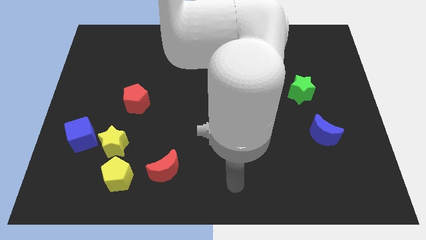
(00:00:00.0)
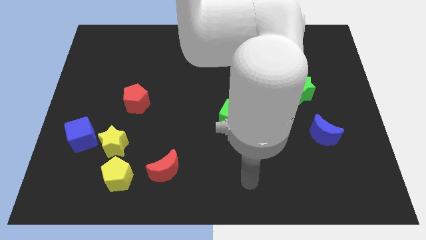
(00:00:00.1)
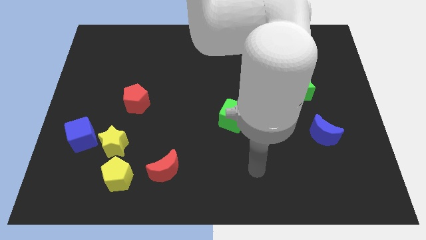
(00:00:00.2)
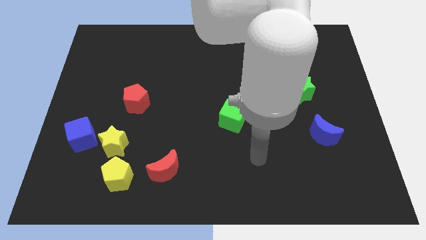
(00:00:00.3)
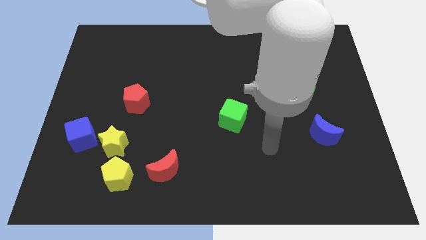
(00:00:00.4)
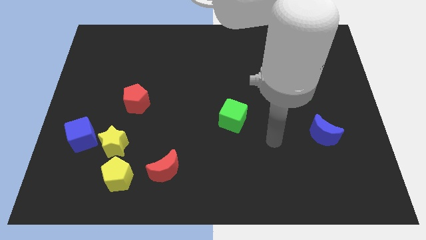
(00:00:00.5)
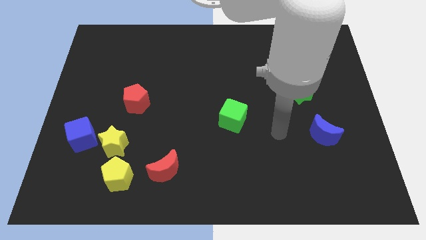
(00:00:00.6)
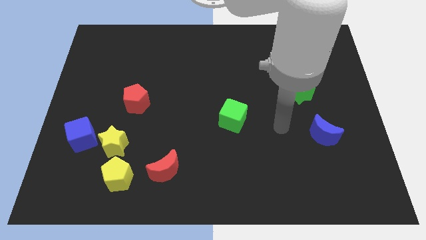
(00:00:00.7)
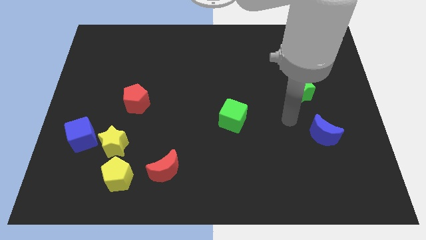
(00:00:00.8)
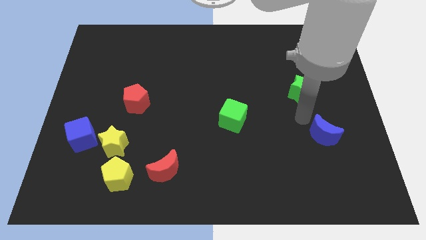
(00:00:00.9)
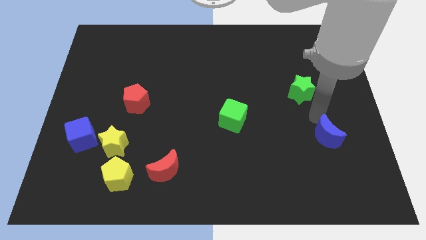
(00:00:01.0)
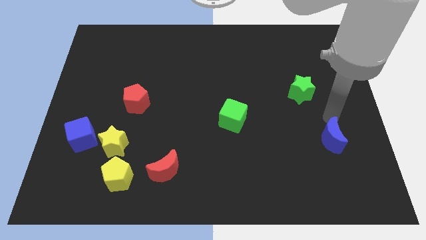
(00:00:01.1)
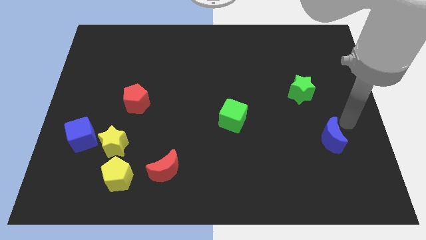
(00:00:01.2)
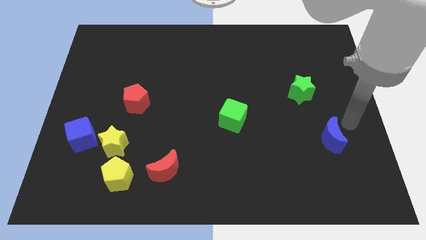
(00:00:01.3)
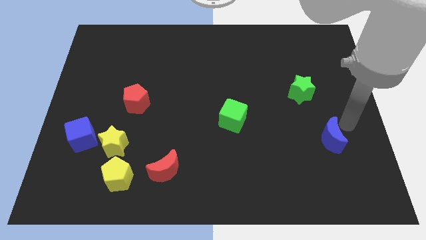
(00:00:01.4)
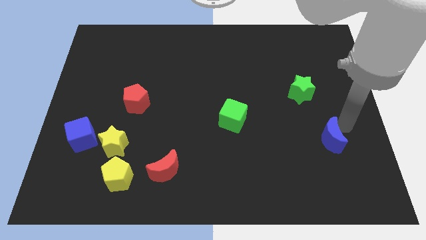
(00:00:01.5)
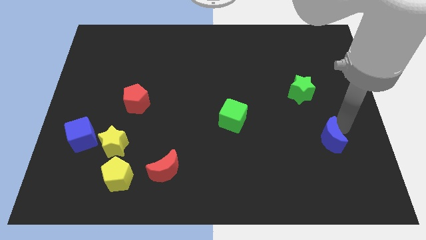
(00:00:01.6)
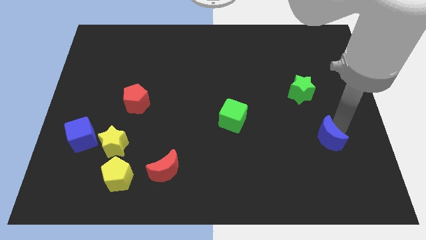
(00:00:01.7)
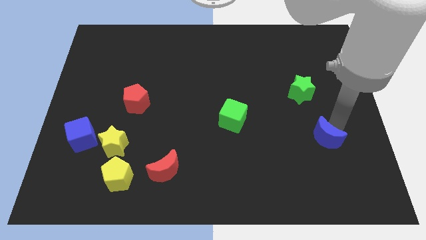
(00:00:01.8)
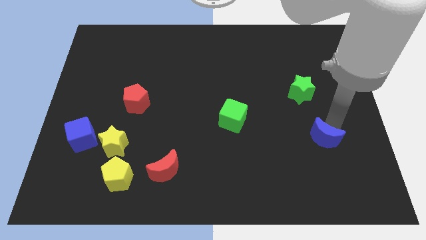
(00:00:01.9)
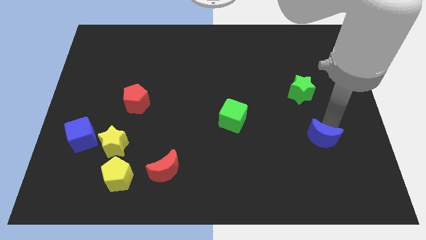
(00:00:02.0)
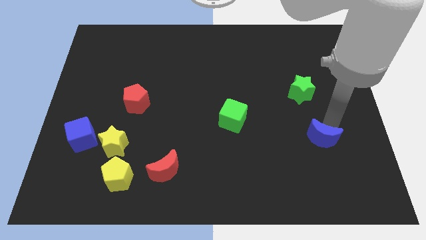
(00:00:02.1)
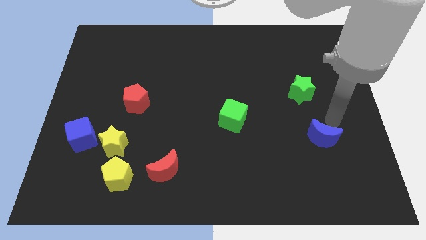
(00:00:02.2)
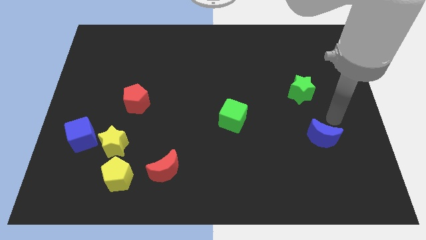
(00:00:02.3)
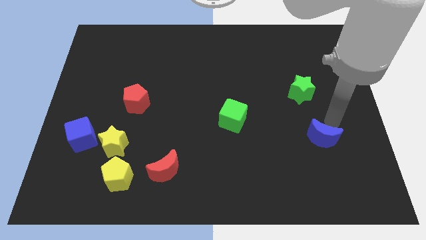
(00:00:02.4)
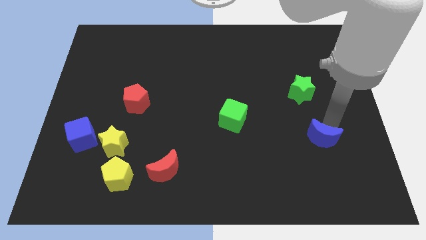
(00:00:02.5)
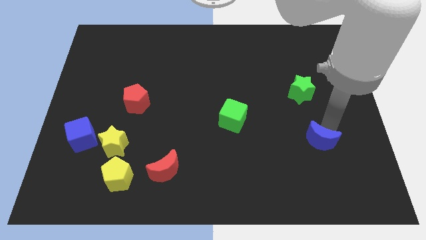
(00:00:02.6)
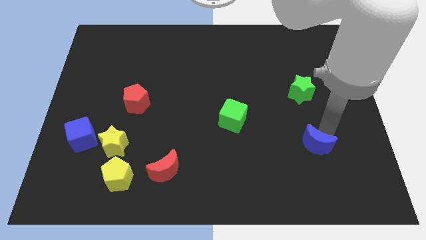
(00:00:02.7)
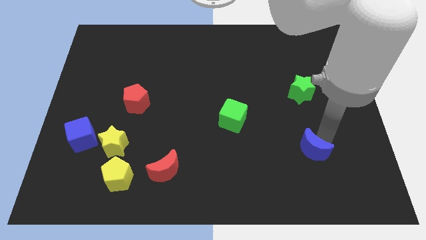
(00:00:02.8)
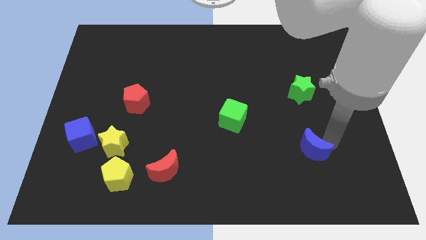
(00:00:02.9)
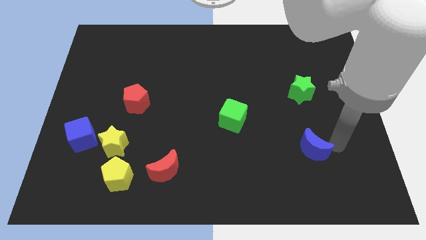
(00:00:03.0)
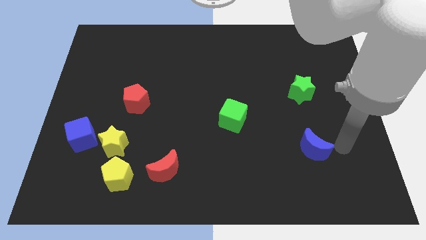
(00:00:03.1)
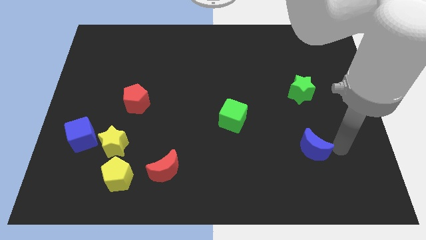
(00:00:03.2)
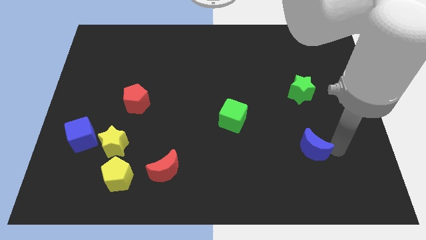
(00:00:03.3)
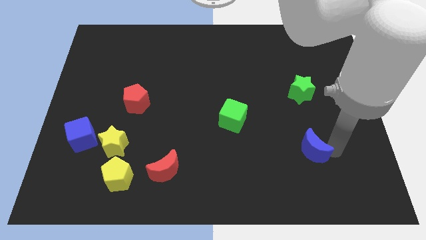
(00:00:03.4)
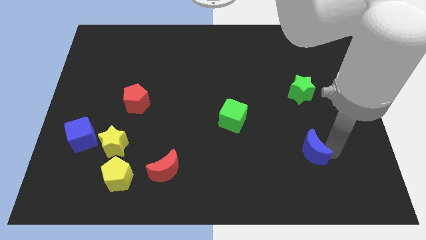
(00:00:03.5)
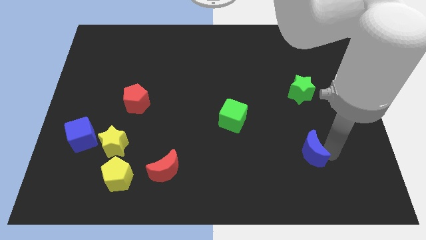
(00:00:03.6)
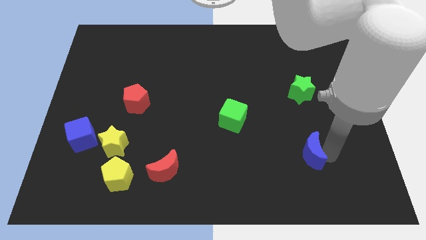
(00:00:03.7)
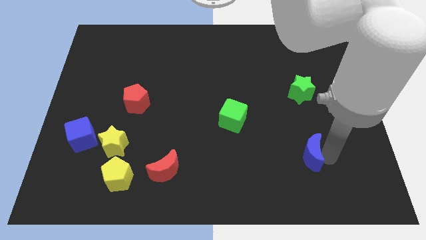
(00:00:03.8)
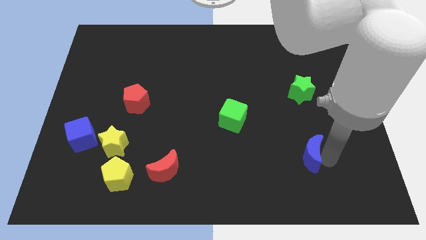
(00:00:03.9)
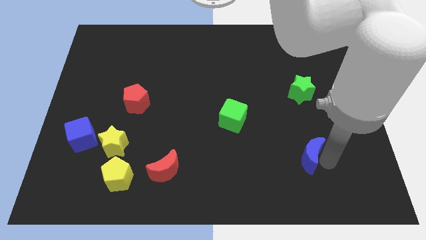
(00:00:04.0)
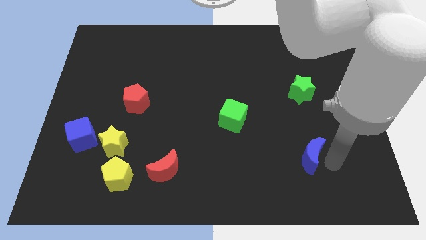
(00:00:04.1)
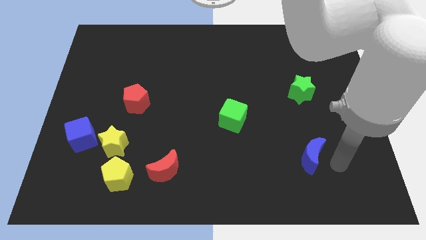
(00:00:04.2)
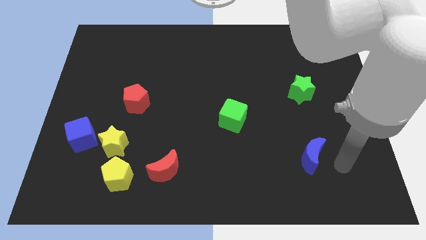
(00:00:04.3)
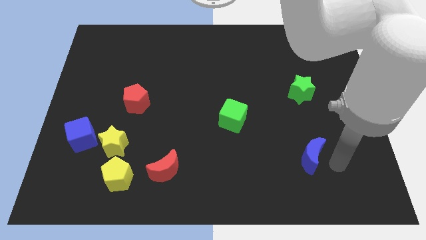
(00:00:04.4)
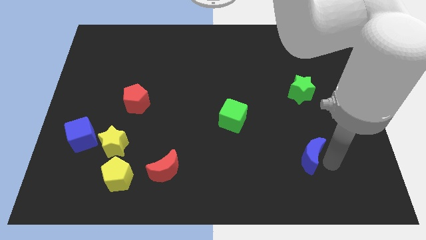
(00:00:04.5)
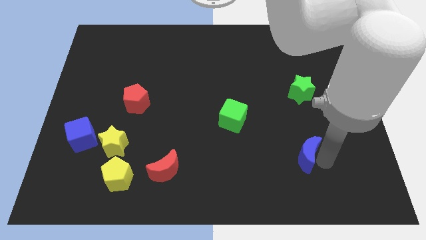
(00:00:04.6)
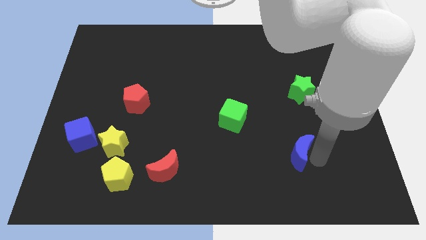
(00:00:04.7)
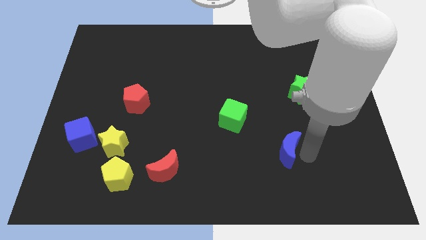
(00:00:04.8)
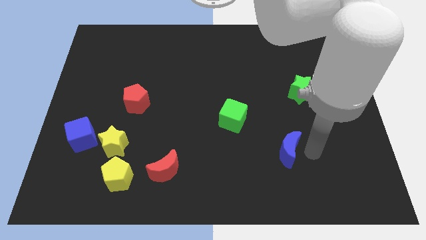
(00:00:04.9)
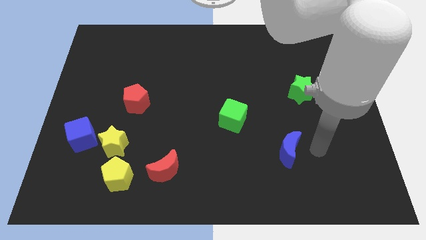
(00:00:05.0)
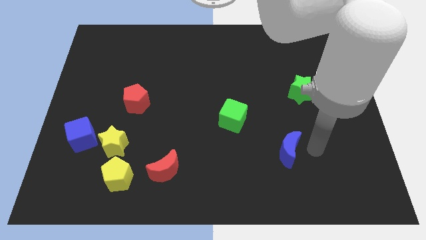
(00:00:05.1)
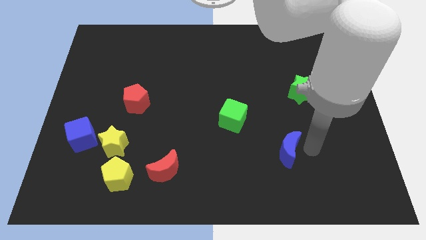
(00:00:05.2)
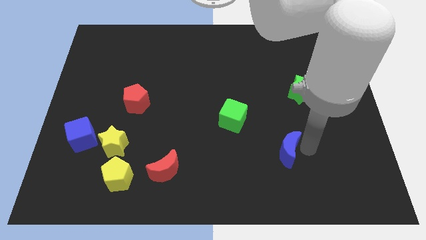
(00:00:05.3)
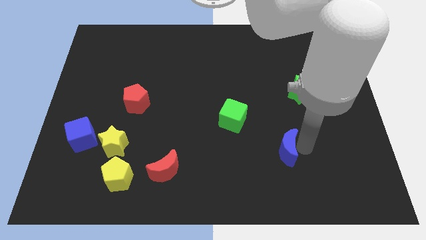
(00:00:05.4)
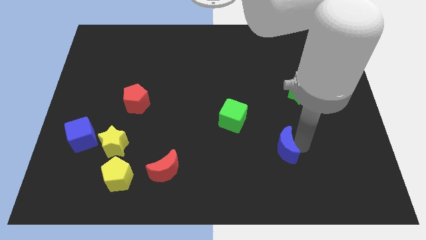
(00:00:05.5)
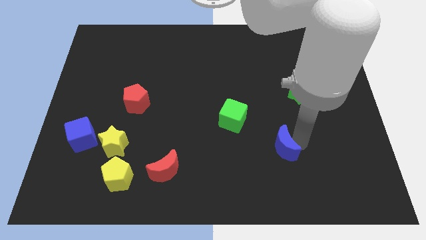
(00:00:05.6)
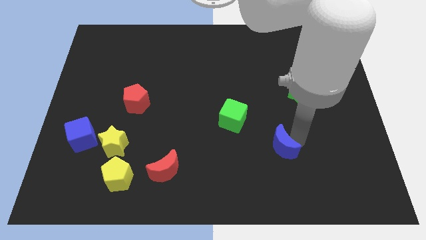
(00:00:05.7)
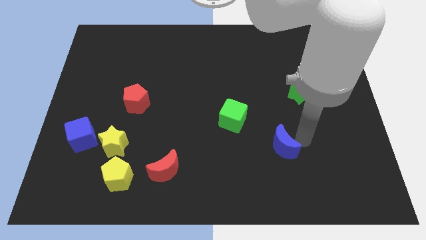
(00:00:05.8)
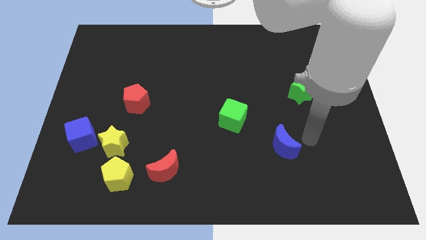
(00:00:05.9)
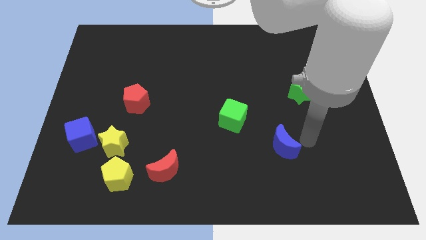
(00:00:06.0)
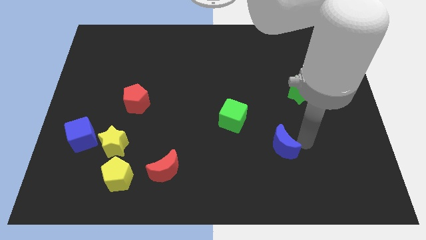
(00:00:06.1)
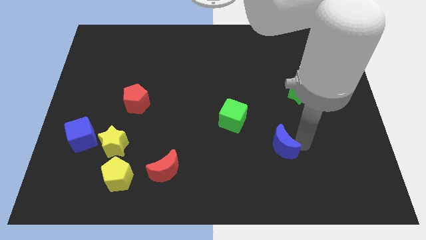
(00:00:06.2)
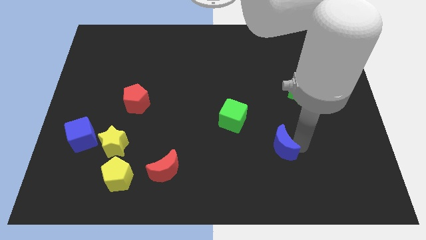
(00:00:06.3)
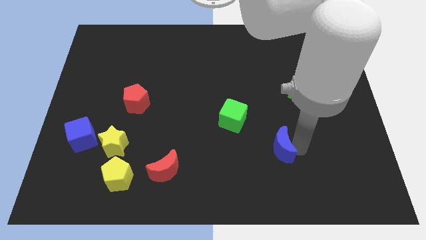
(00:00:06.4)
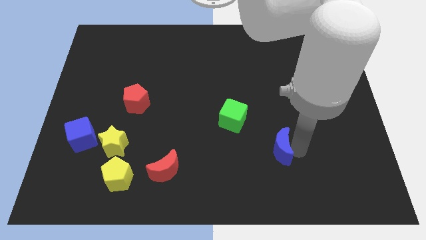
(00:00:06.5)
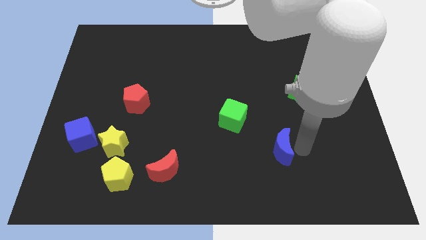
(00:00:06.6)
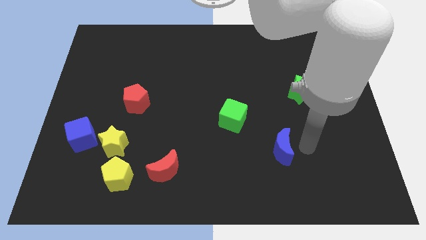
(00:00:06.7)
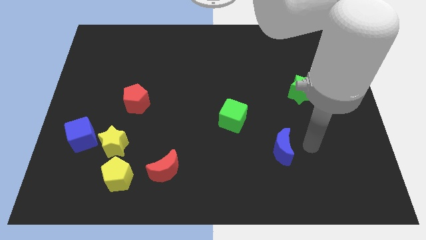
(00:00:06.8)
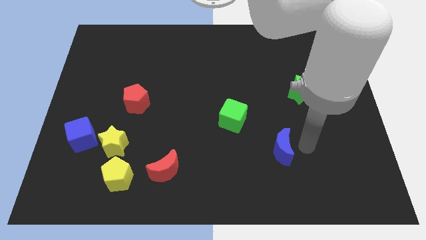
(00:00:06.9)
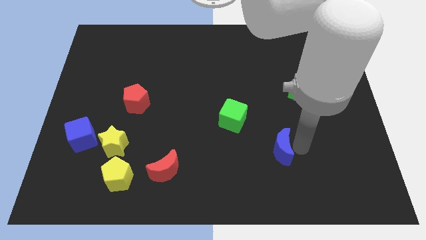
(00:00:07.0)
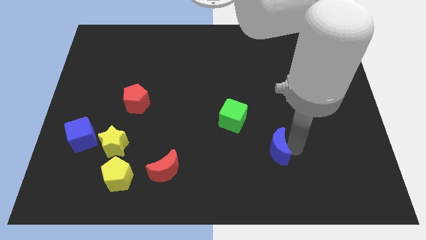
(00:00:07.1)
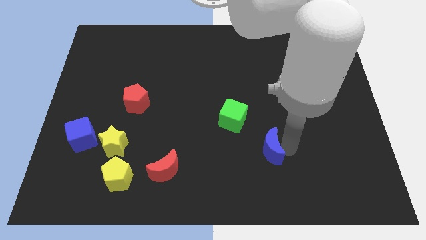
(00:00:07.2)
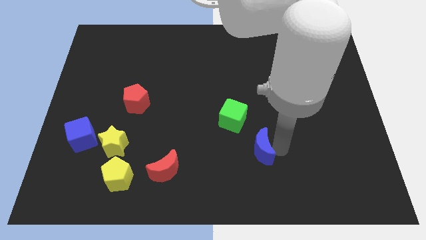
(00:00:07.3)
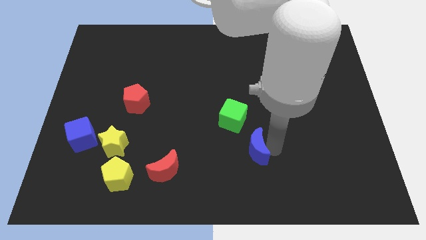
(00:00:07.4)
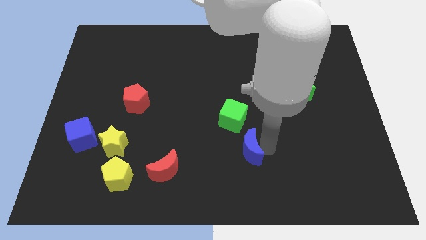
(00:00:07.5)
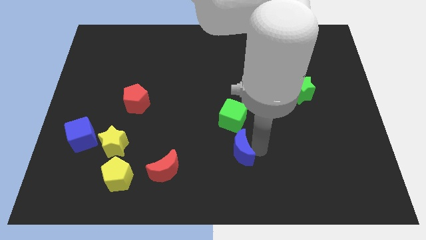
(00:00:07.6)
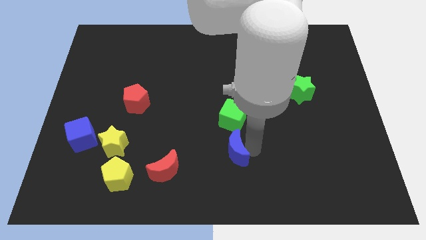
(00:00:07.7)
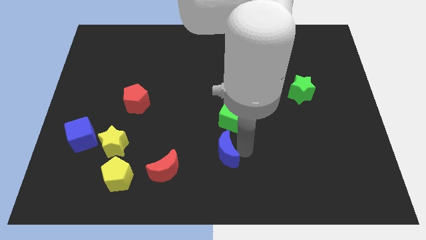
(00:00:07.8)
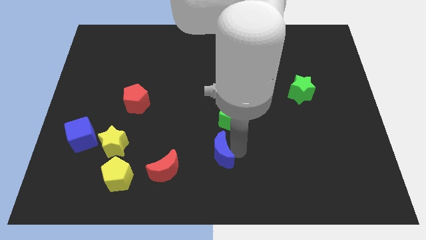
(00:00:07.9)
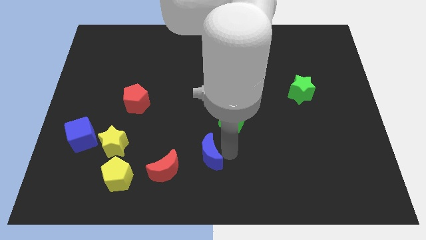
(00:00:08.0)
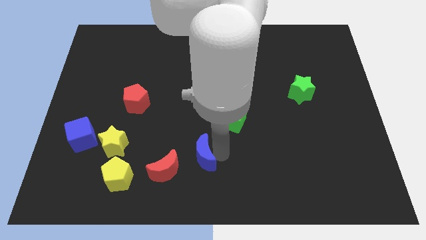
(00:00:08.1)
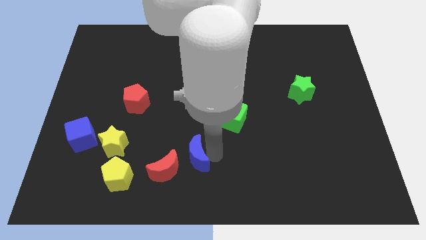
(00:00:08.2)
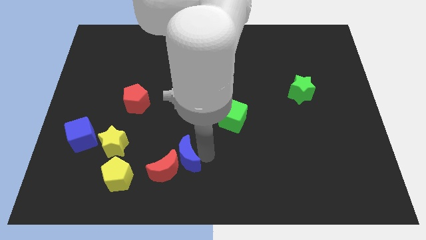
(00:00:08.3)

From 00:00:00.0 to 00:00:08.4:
move the blue moon next to the red moon
